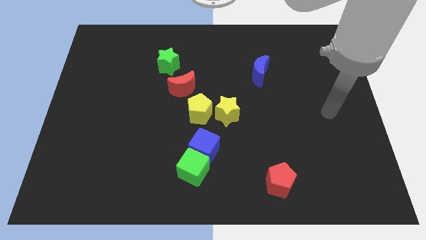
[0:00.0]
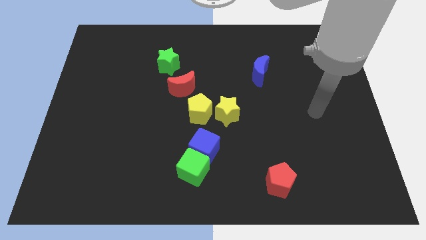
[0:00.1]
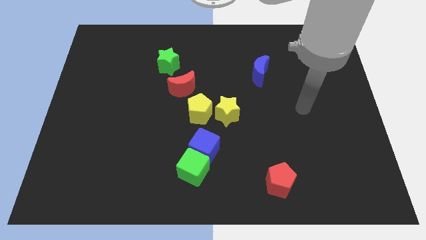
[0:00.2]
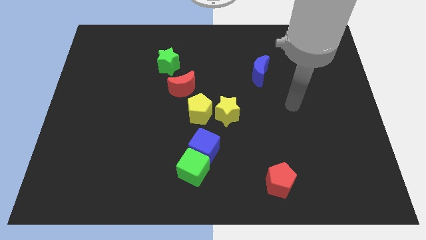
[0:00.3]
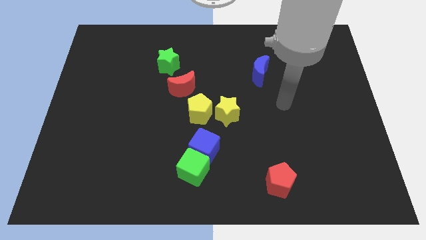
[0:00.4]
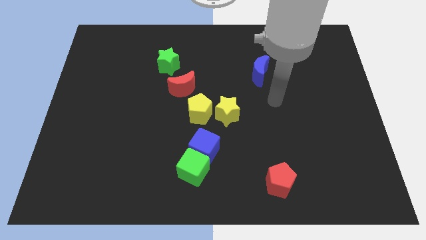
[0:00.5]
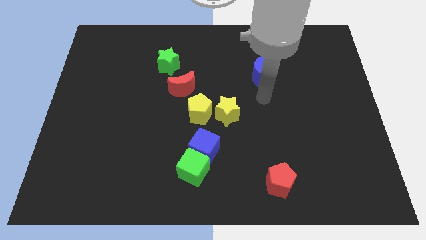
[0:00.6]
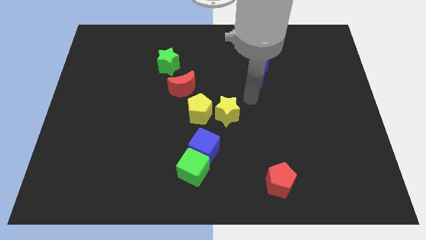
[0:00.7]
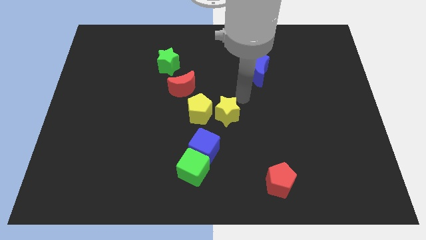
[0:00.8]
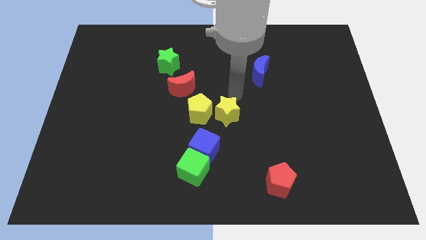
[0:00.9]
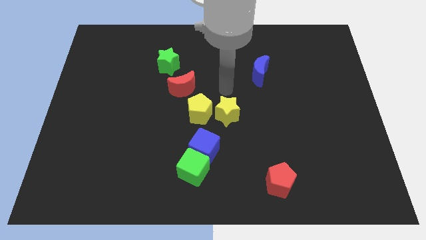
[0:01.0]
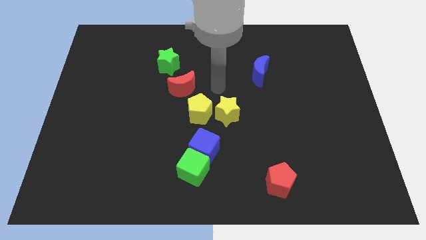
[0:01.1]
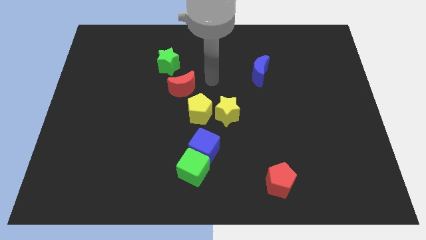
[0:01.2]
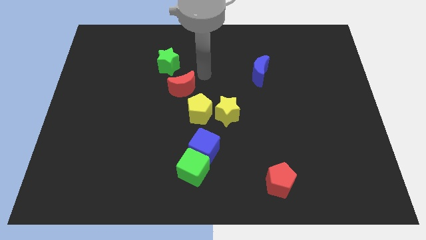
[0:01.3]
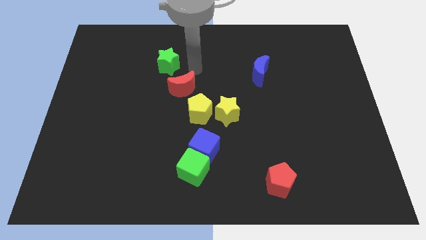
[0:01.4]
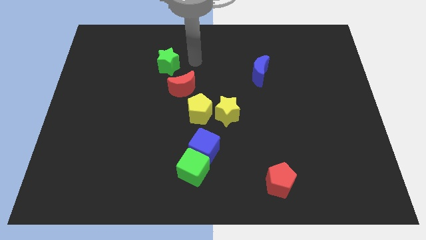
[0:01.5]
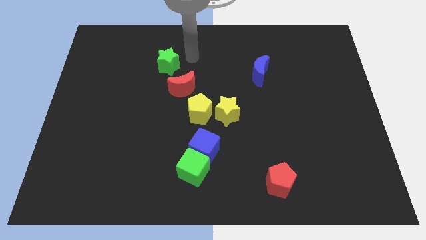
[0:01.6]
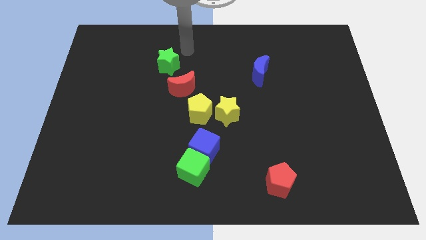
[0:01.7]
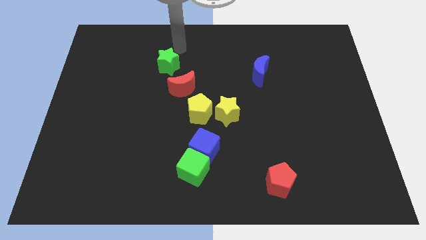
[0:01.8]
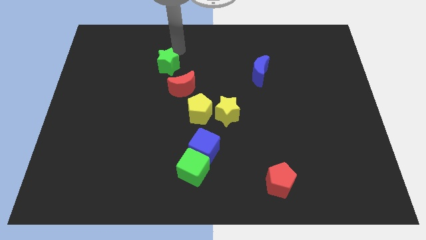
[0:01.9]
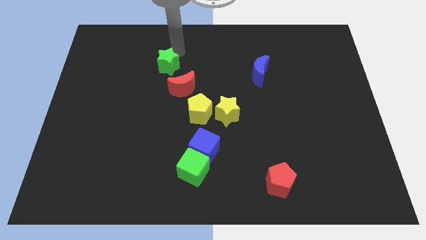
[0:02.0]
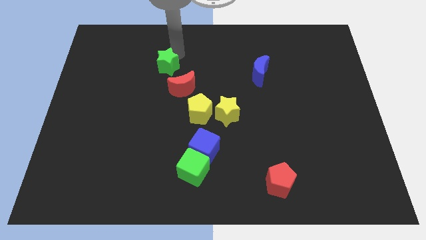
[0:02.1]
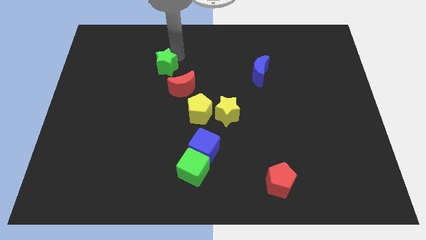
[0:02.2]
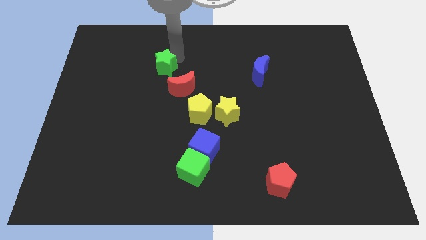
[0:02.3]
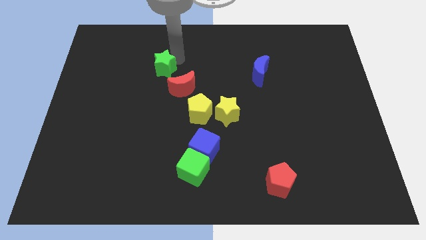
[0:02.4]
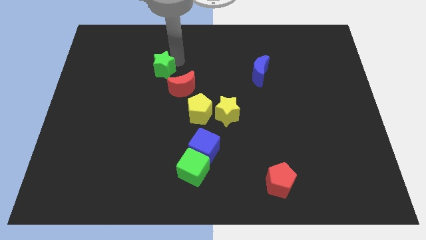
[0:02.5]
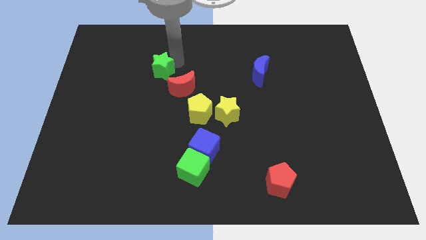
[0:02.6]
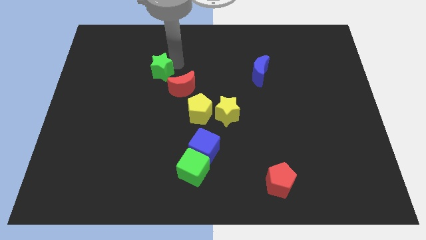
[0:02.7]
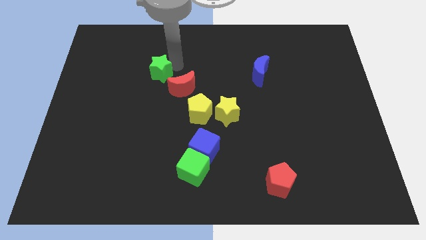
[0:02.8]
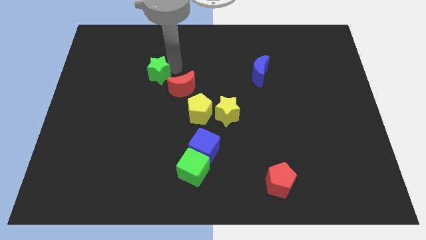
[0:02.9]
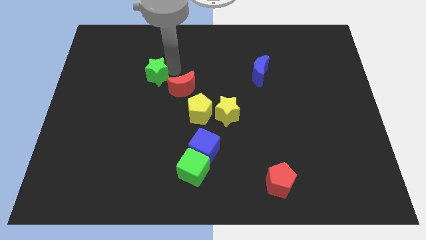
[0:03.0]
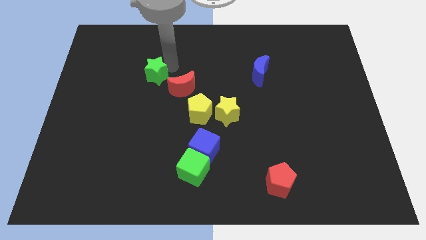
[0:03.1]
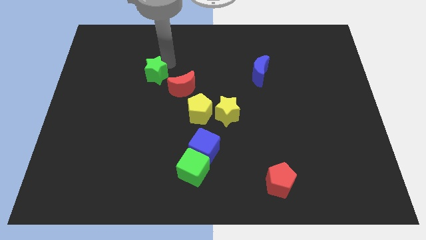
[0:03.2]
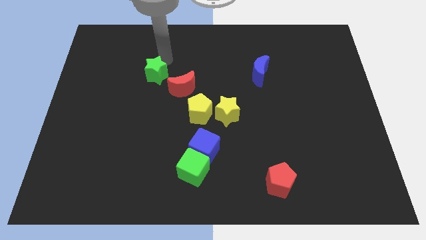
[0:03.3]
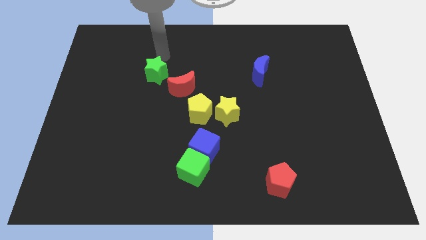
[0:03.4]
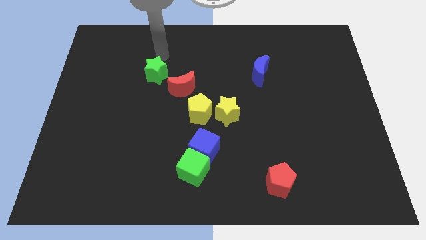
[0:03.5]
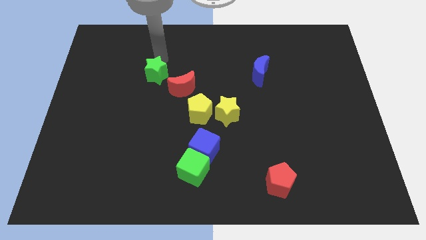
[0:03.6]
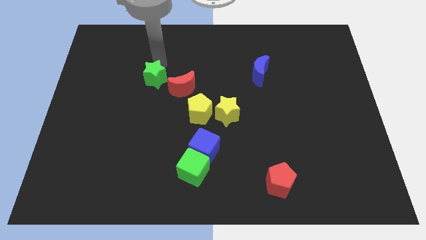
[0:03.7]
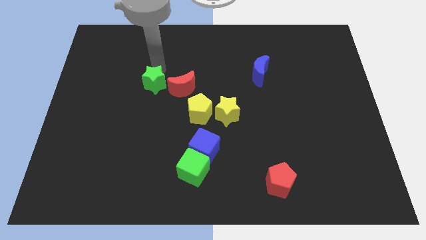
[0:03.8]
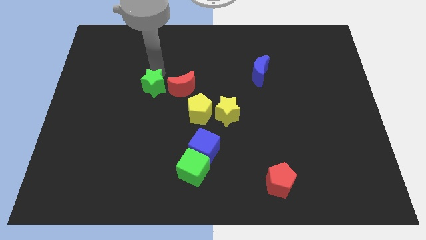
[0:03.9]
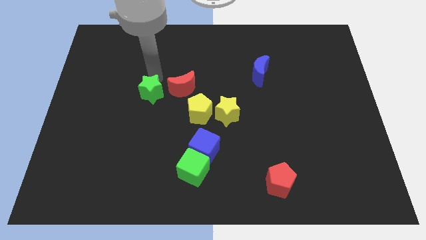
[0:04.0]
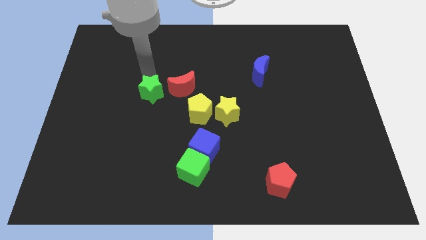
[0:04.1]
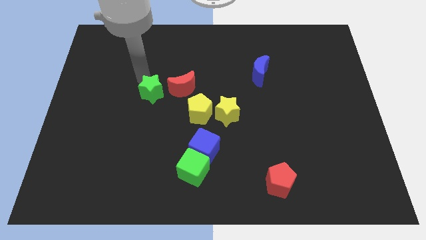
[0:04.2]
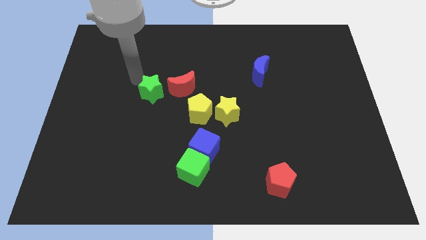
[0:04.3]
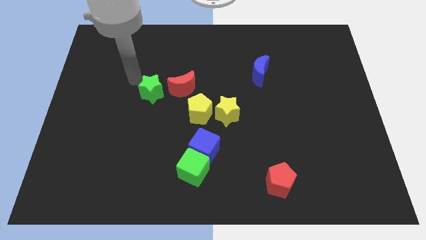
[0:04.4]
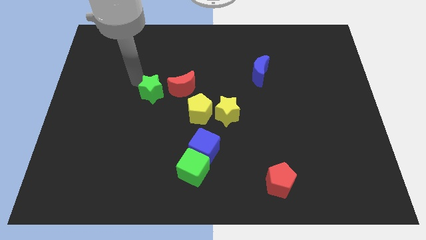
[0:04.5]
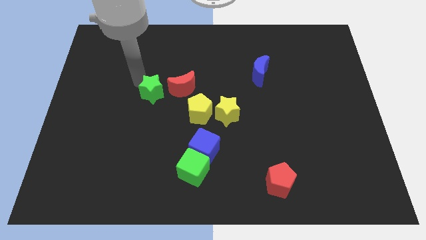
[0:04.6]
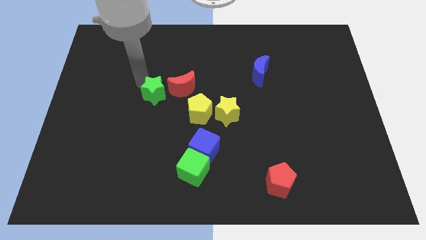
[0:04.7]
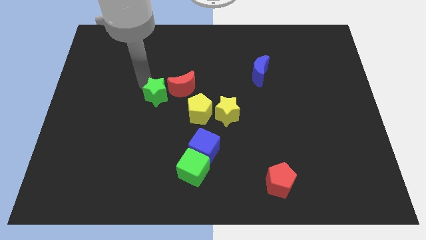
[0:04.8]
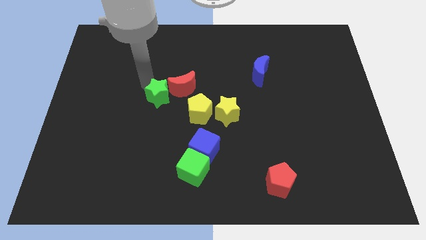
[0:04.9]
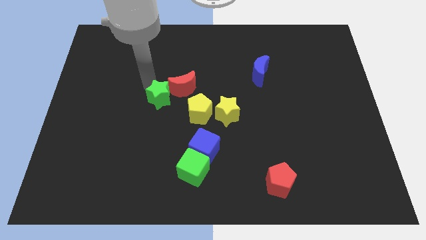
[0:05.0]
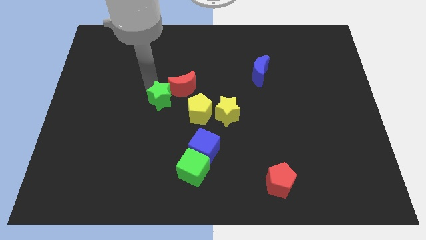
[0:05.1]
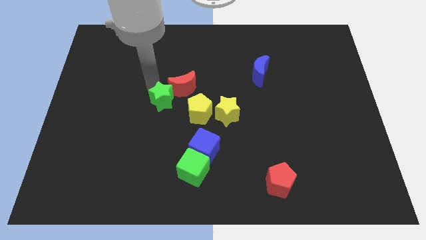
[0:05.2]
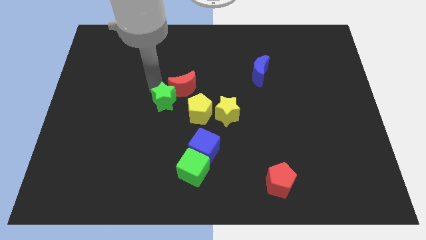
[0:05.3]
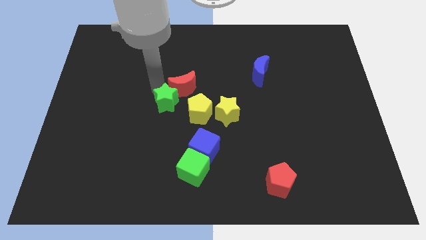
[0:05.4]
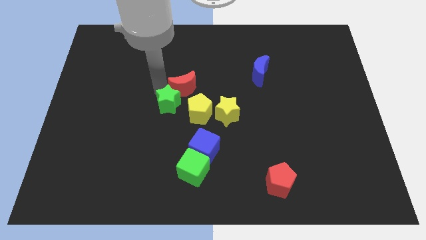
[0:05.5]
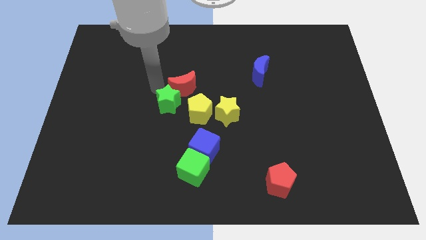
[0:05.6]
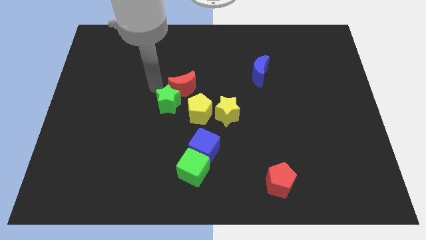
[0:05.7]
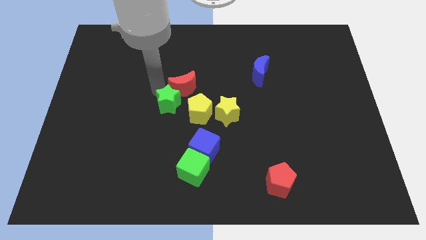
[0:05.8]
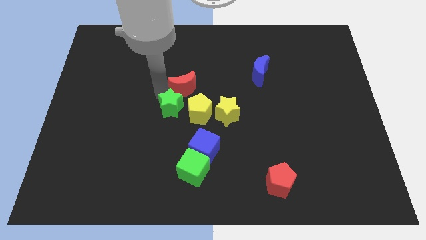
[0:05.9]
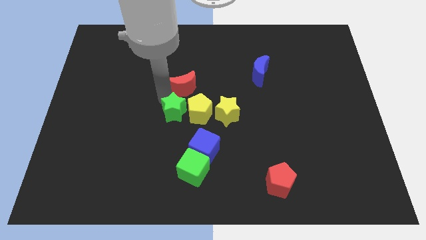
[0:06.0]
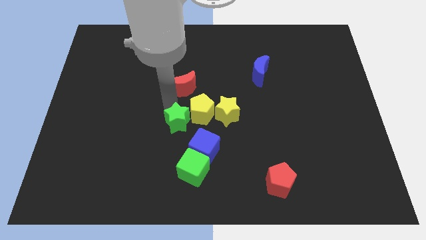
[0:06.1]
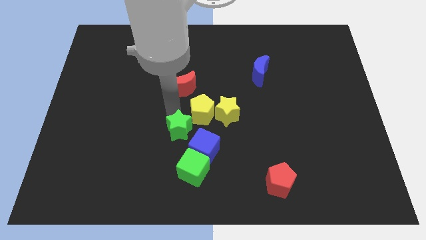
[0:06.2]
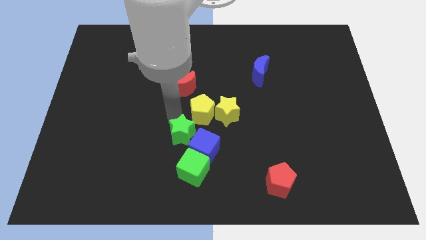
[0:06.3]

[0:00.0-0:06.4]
slide the green star to the blue cube
